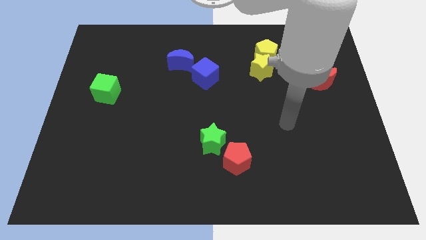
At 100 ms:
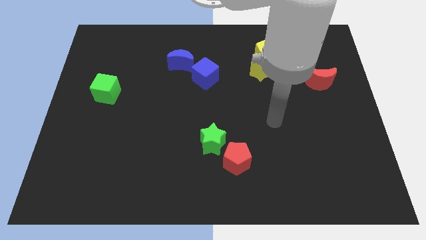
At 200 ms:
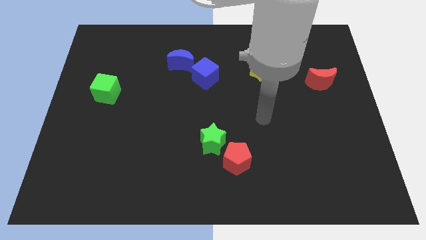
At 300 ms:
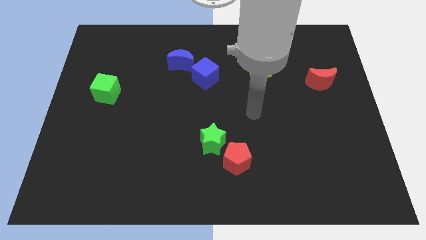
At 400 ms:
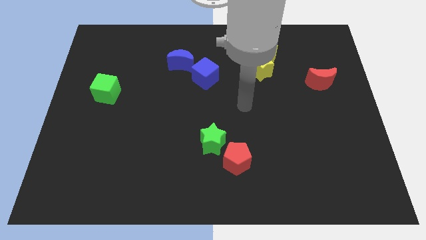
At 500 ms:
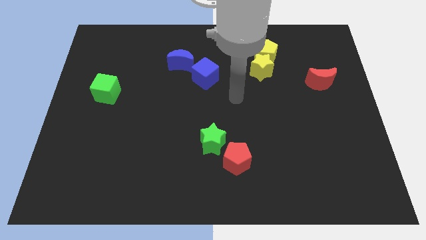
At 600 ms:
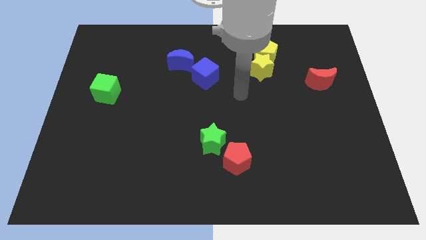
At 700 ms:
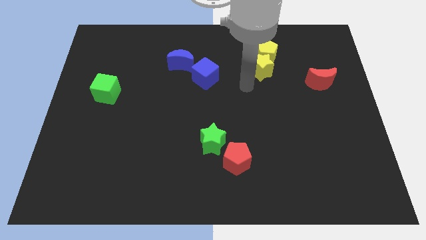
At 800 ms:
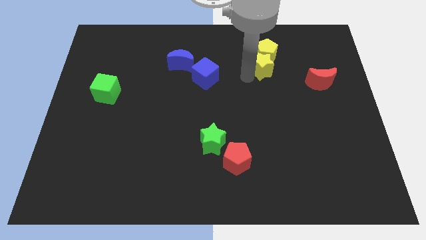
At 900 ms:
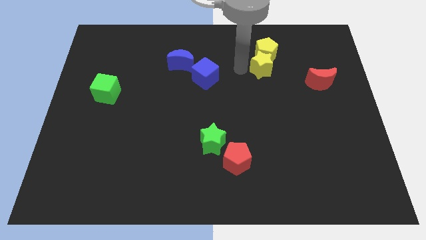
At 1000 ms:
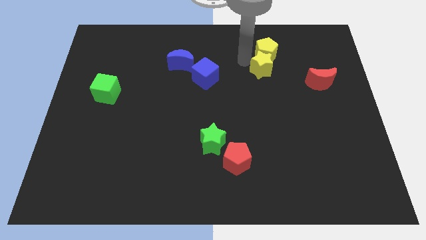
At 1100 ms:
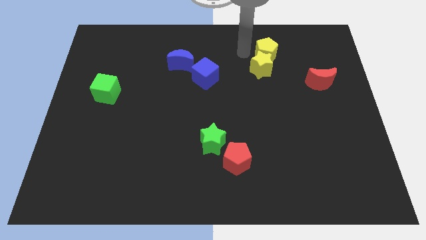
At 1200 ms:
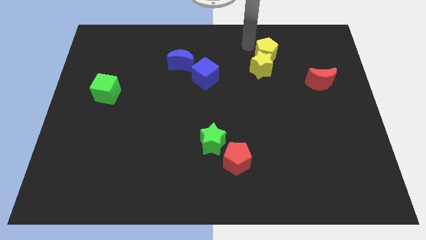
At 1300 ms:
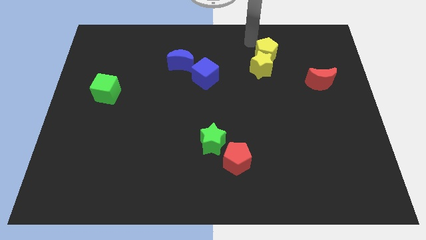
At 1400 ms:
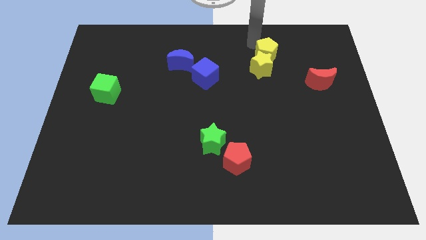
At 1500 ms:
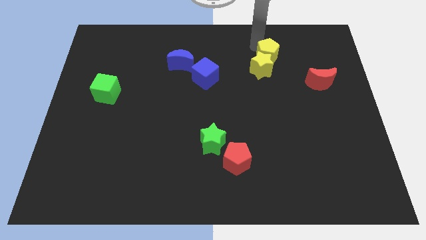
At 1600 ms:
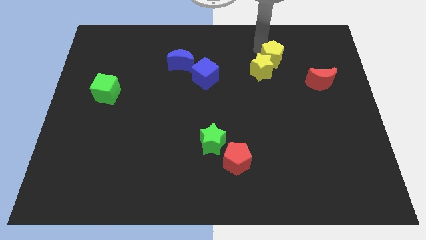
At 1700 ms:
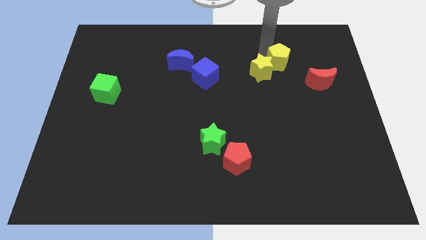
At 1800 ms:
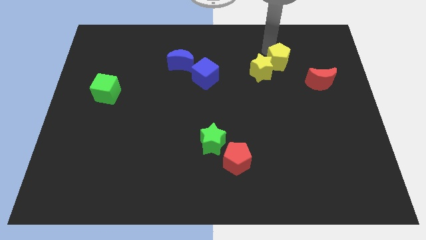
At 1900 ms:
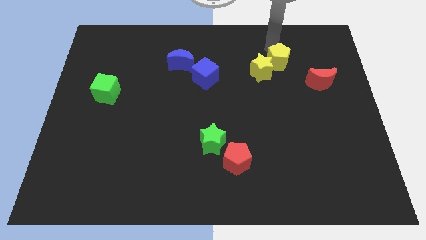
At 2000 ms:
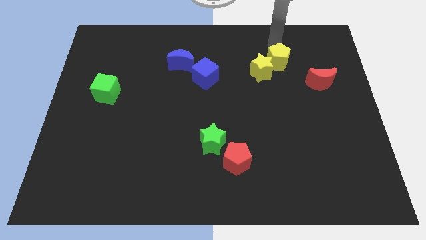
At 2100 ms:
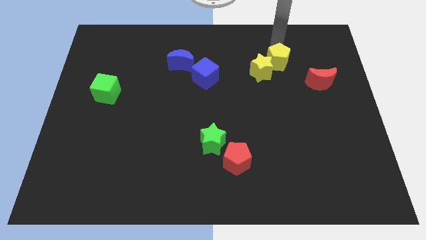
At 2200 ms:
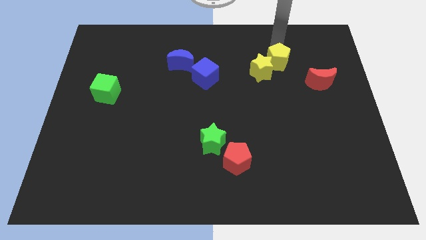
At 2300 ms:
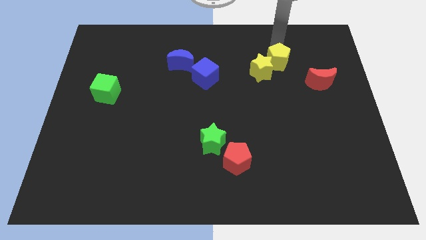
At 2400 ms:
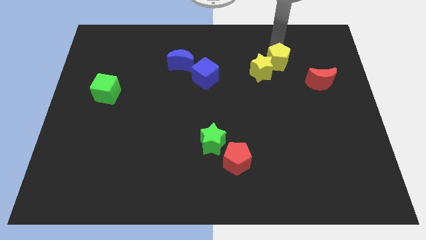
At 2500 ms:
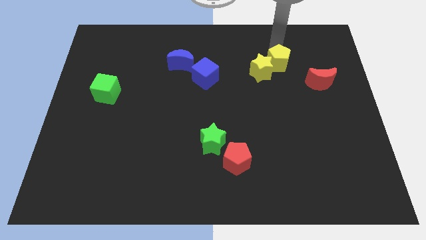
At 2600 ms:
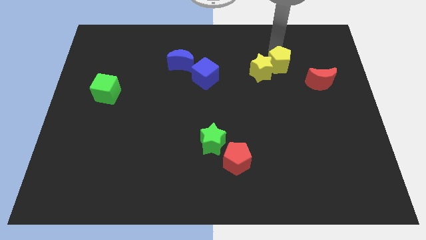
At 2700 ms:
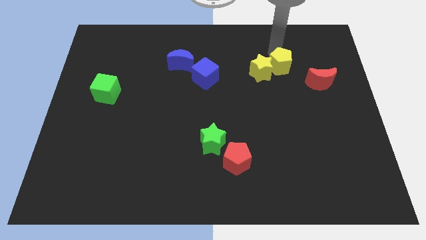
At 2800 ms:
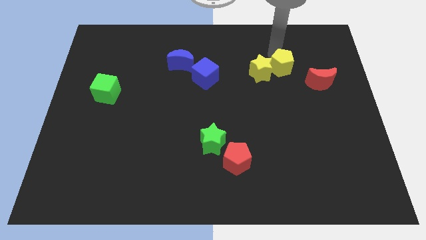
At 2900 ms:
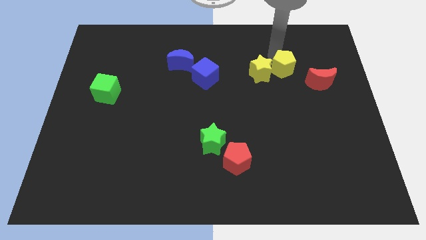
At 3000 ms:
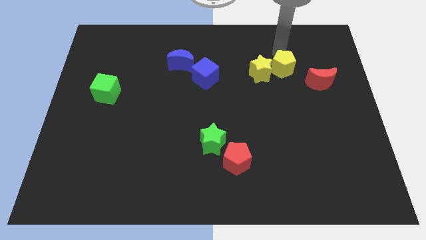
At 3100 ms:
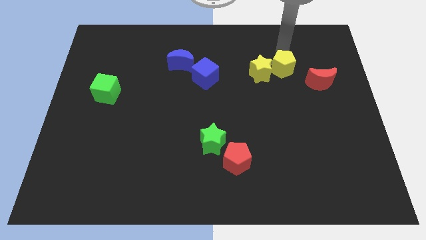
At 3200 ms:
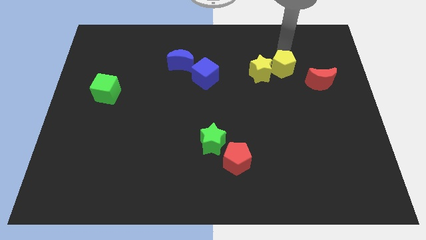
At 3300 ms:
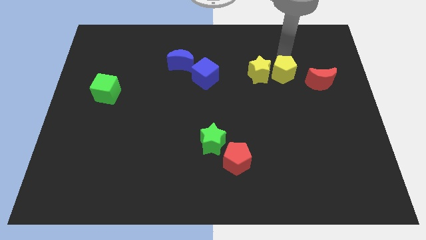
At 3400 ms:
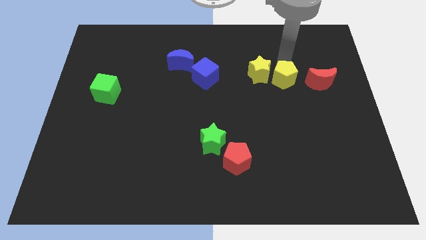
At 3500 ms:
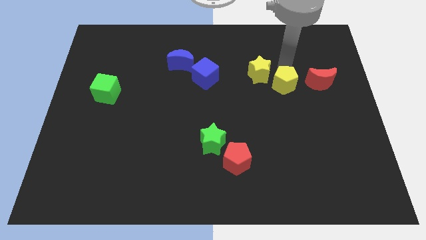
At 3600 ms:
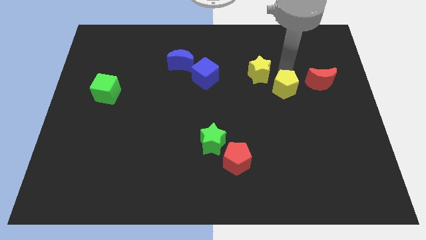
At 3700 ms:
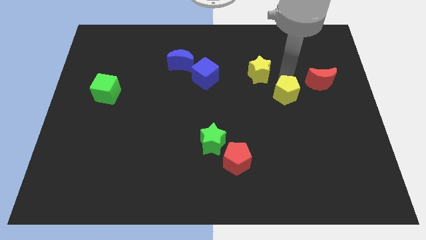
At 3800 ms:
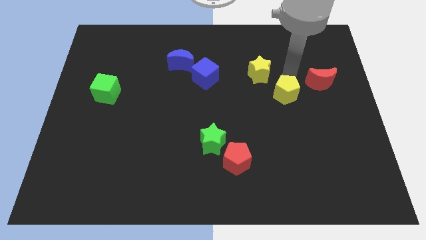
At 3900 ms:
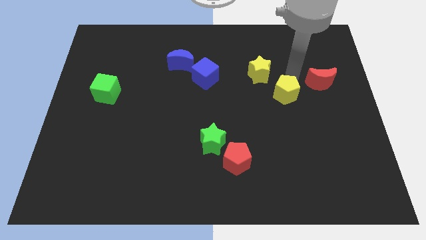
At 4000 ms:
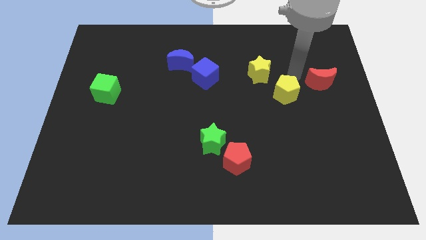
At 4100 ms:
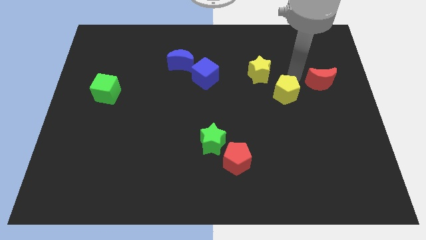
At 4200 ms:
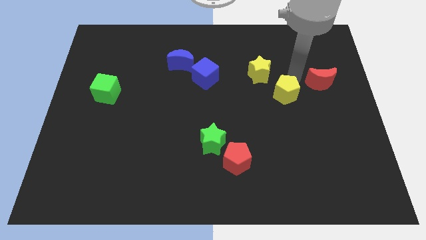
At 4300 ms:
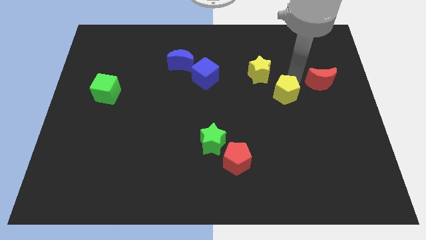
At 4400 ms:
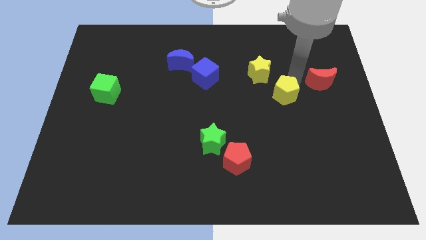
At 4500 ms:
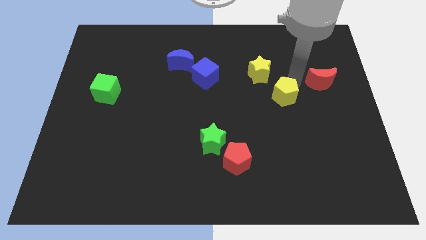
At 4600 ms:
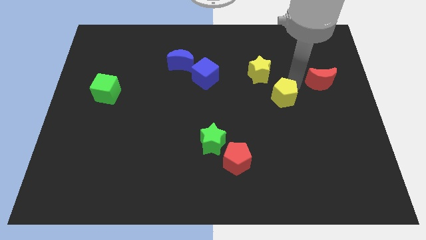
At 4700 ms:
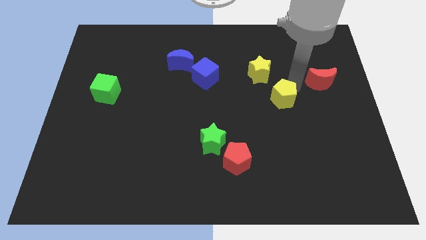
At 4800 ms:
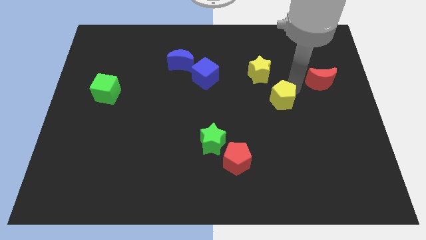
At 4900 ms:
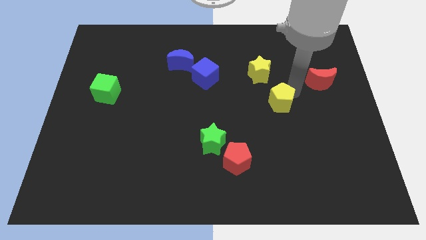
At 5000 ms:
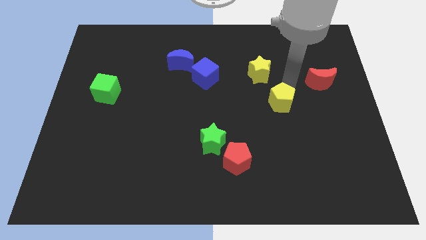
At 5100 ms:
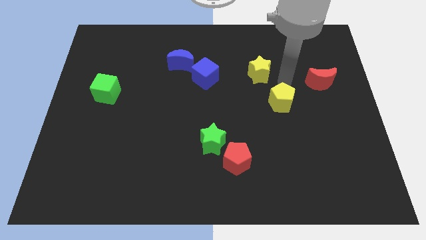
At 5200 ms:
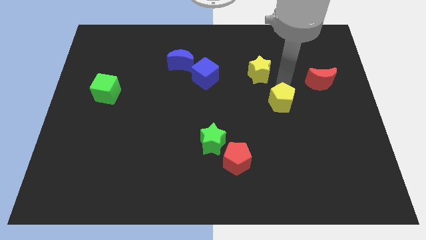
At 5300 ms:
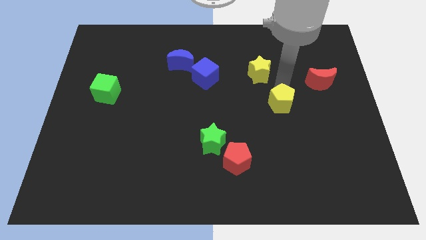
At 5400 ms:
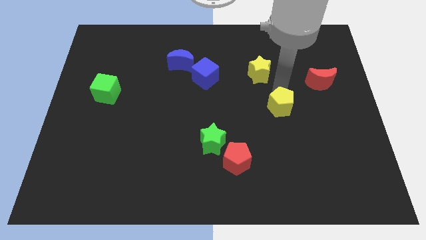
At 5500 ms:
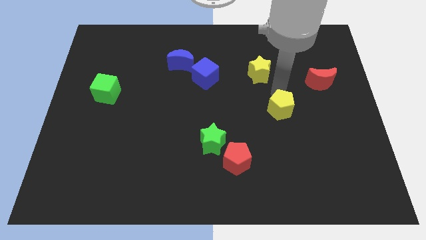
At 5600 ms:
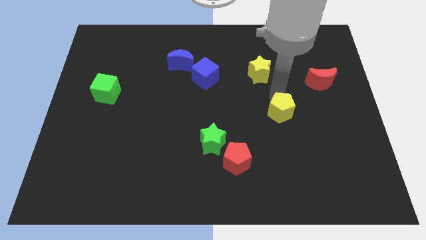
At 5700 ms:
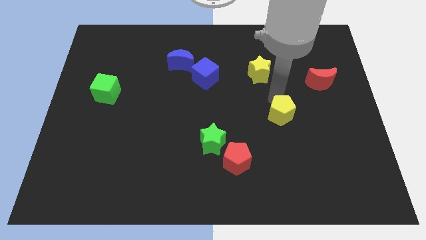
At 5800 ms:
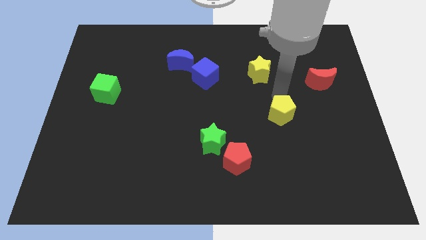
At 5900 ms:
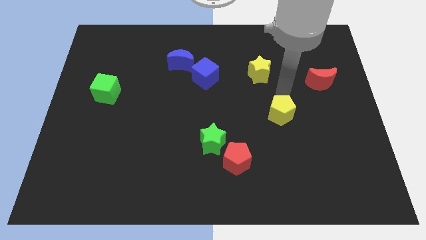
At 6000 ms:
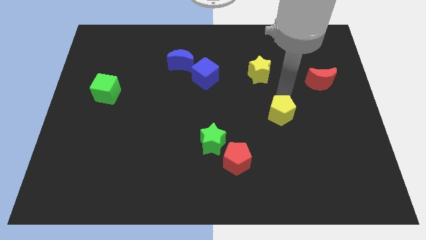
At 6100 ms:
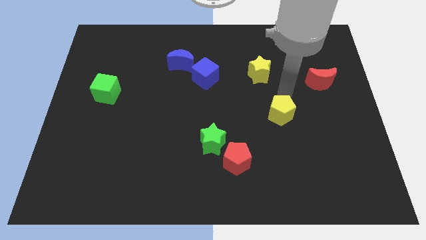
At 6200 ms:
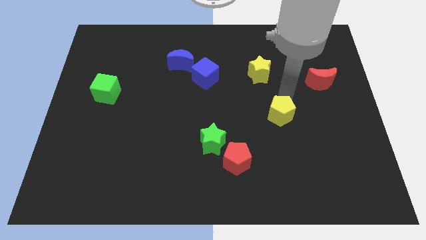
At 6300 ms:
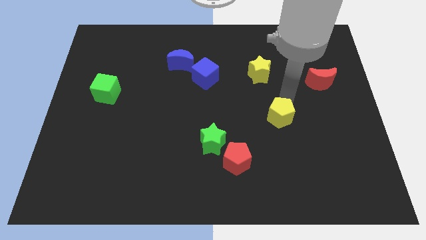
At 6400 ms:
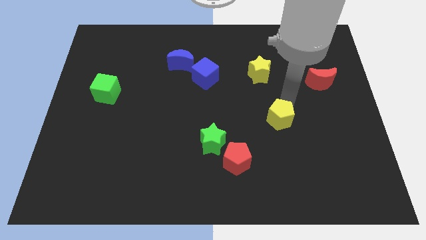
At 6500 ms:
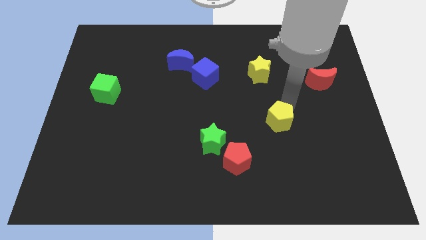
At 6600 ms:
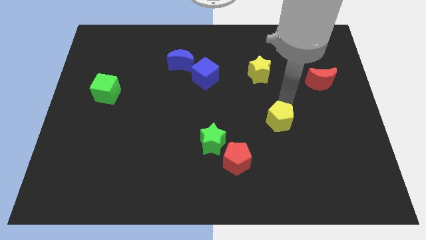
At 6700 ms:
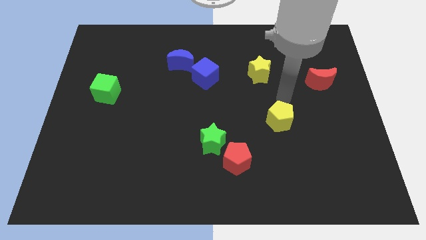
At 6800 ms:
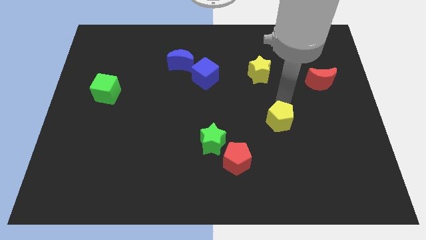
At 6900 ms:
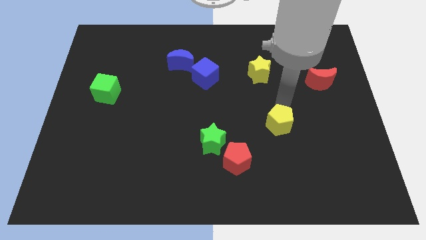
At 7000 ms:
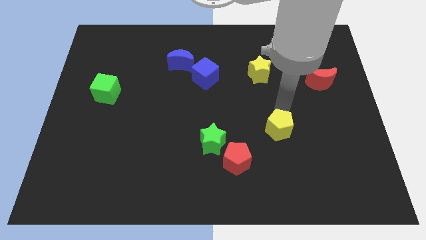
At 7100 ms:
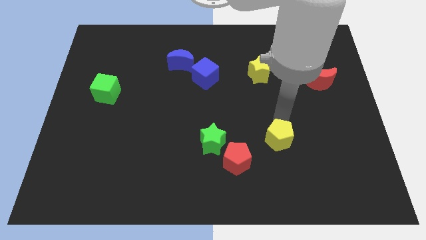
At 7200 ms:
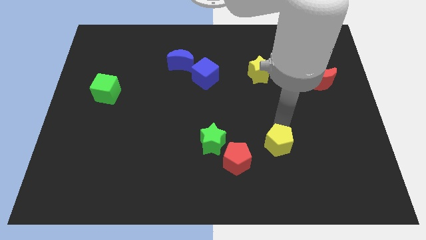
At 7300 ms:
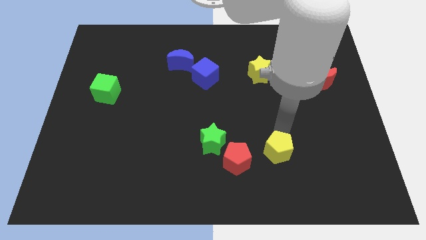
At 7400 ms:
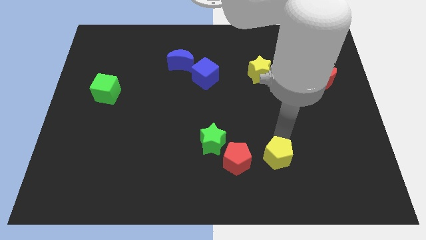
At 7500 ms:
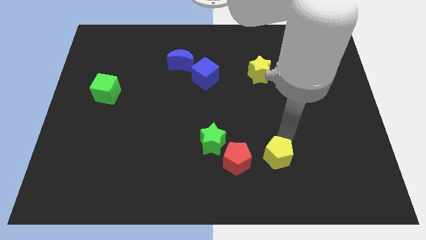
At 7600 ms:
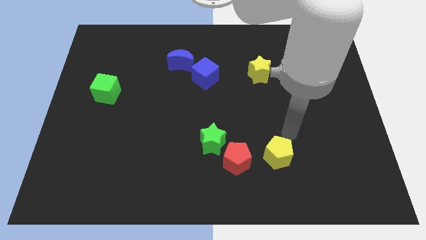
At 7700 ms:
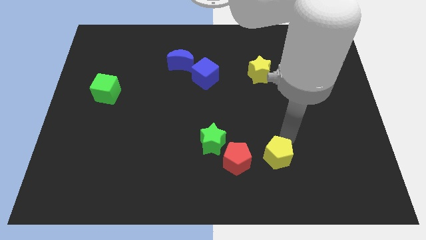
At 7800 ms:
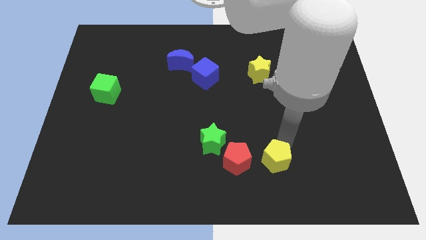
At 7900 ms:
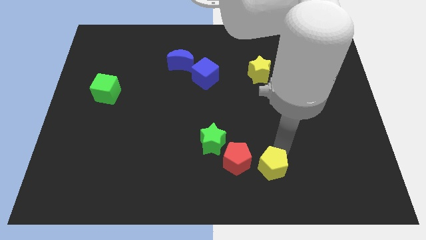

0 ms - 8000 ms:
put the yellow pentagon to the bottom right of the red pentagon
